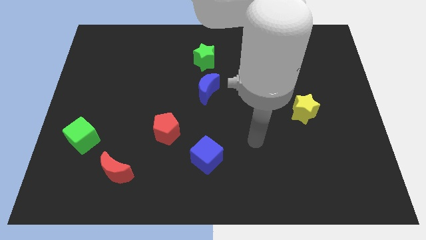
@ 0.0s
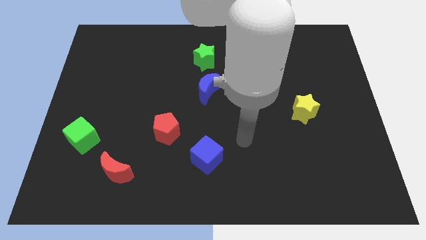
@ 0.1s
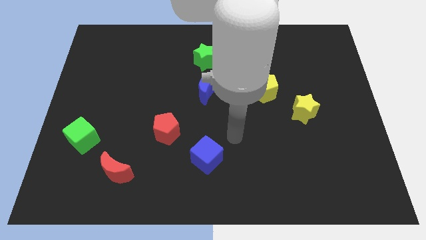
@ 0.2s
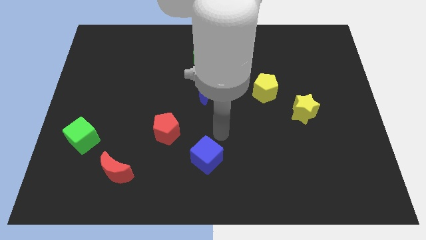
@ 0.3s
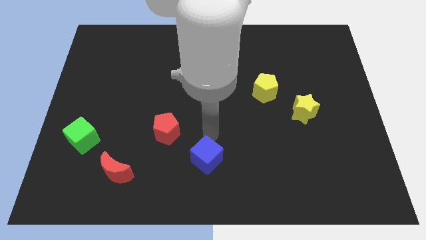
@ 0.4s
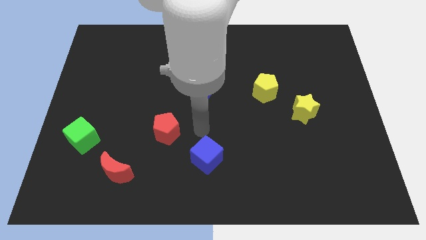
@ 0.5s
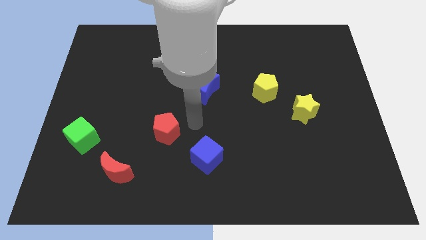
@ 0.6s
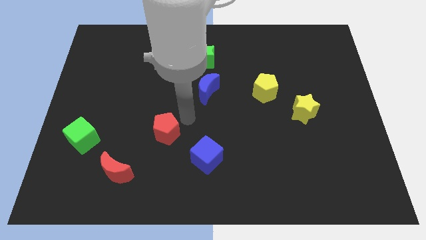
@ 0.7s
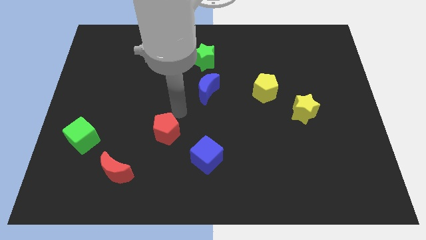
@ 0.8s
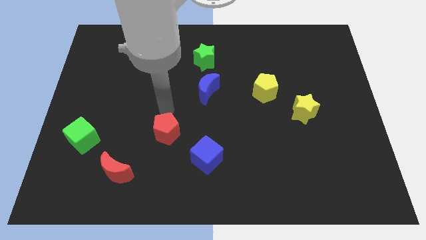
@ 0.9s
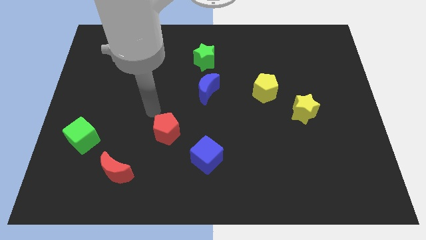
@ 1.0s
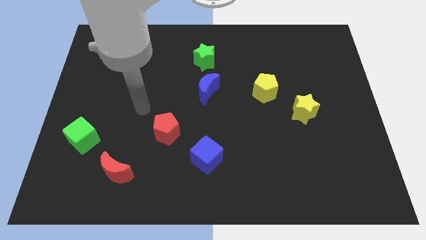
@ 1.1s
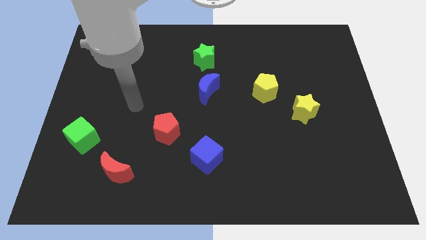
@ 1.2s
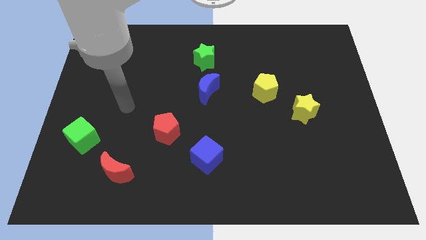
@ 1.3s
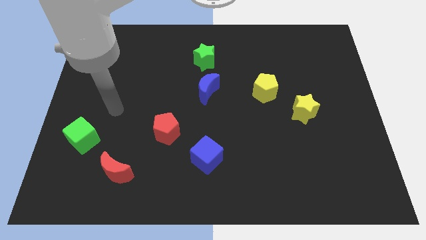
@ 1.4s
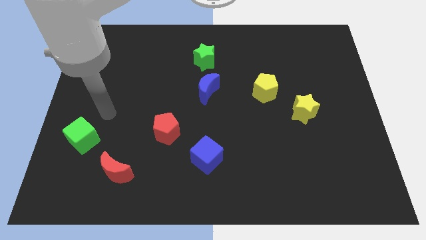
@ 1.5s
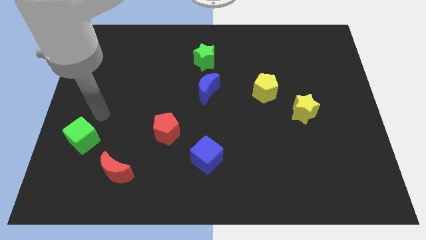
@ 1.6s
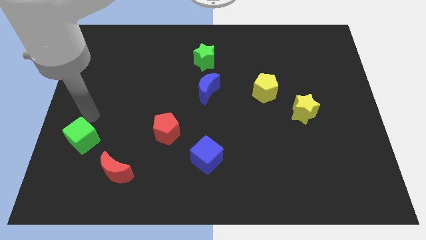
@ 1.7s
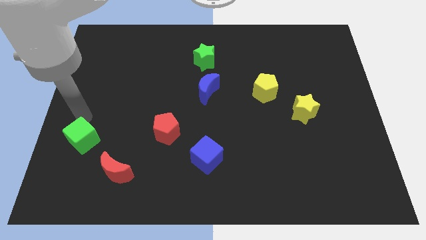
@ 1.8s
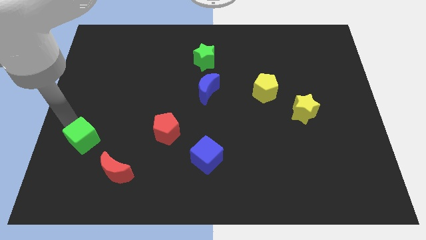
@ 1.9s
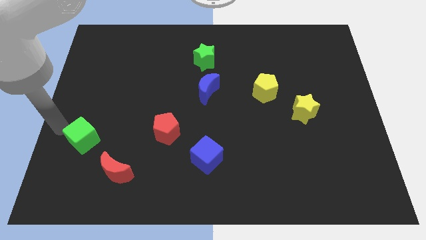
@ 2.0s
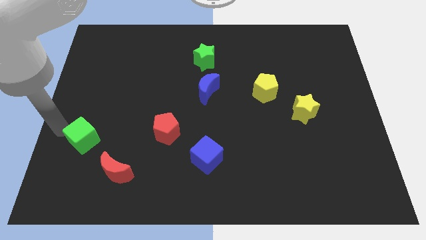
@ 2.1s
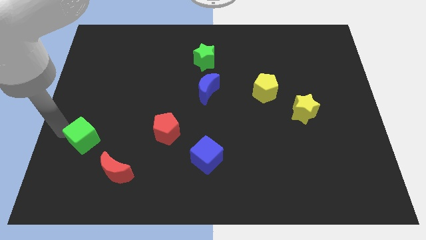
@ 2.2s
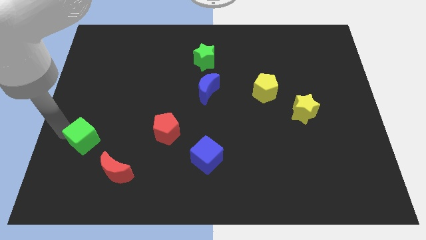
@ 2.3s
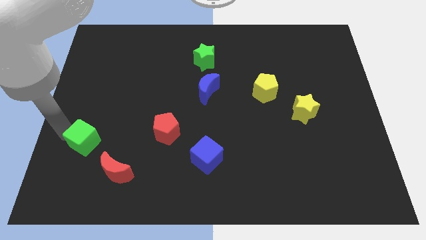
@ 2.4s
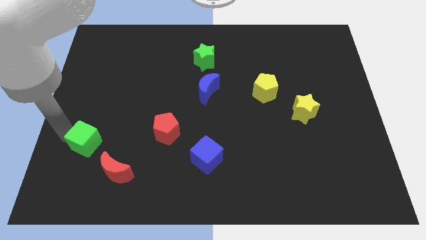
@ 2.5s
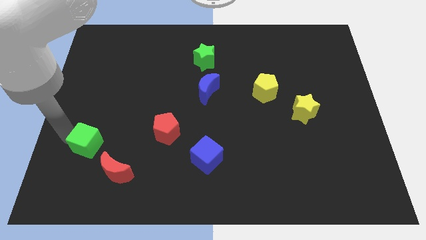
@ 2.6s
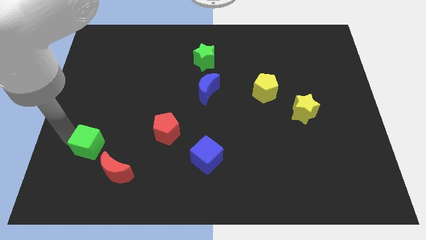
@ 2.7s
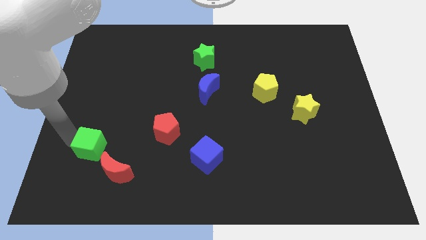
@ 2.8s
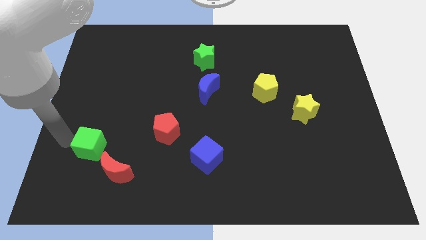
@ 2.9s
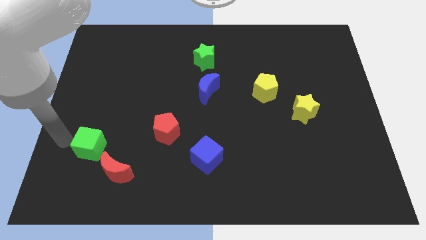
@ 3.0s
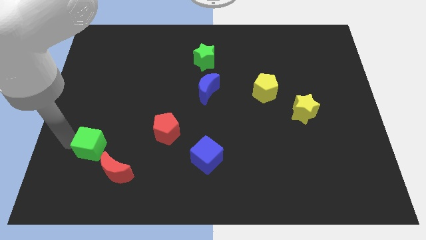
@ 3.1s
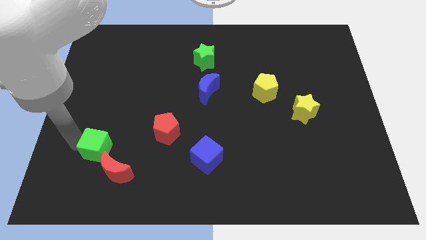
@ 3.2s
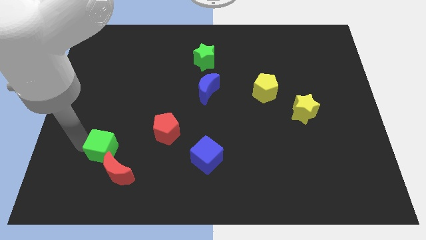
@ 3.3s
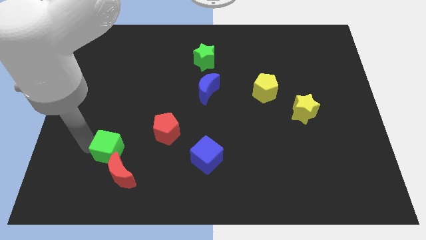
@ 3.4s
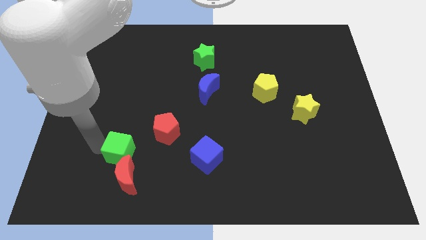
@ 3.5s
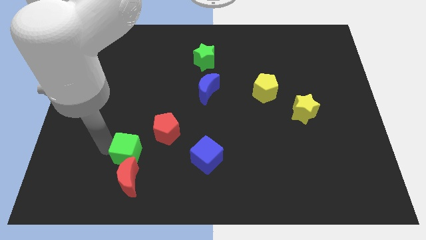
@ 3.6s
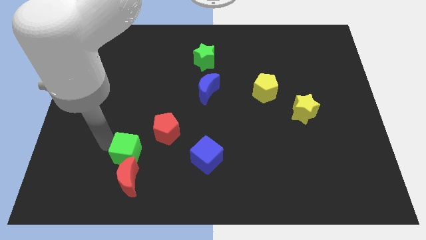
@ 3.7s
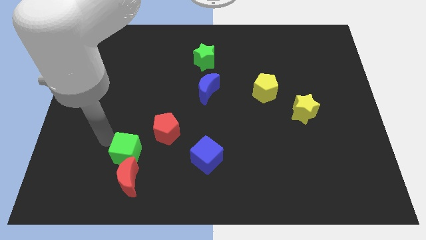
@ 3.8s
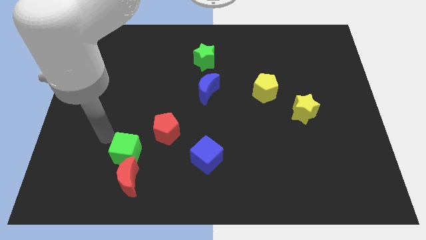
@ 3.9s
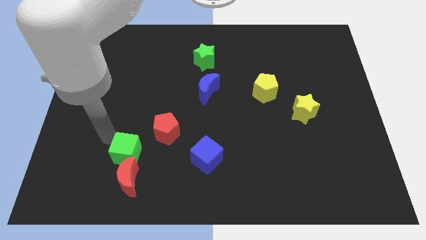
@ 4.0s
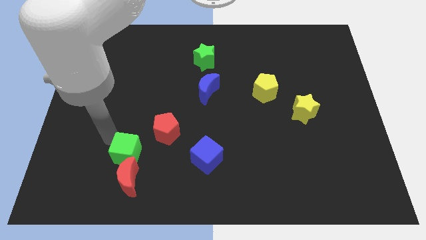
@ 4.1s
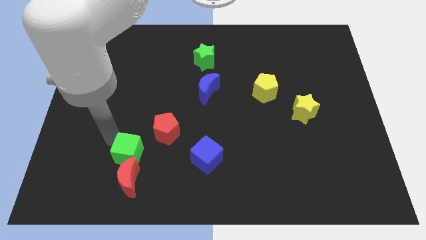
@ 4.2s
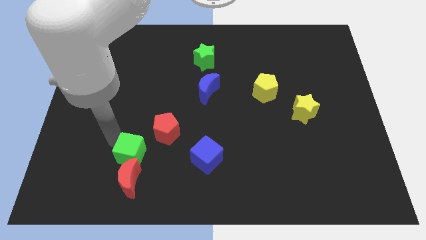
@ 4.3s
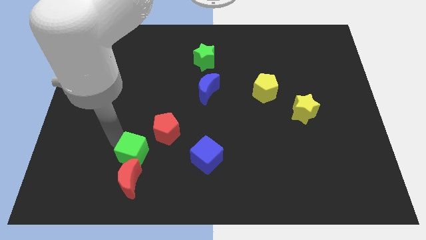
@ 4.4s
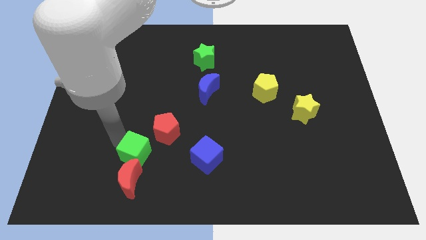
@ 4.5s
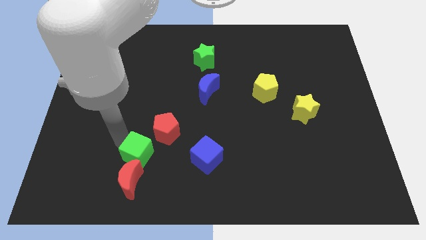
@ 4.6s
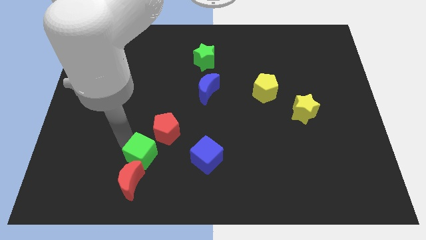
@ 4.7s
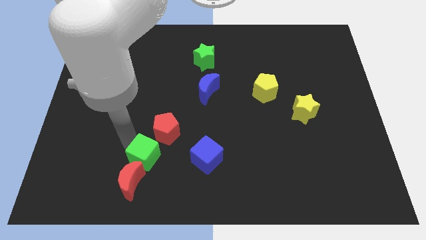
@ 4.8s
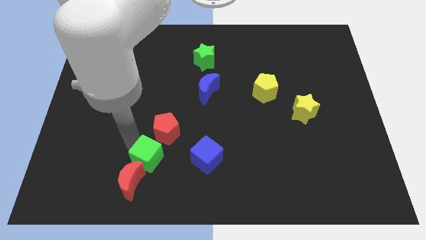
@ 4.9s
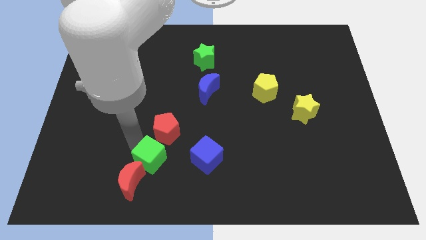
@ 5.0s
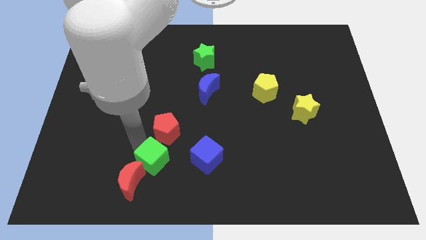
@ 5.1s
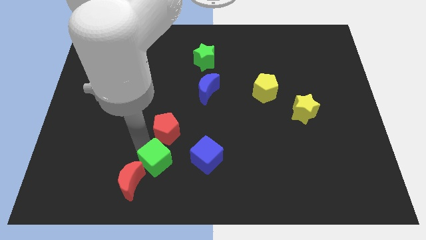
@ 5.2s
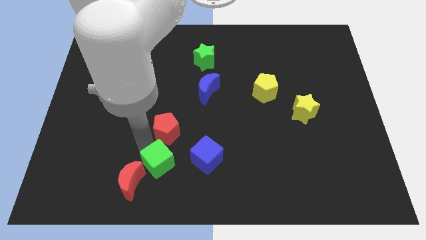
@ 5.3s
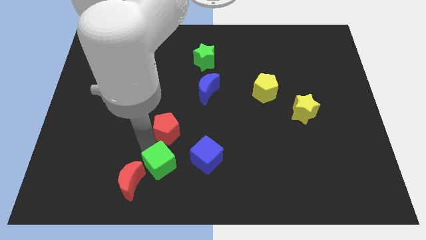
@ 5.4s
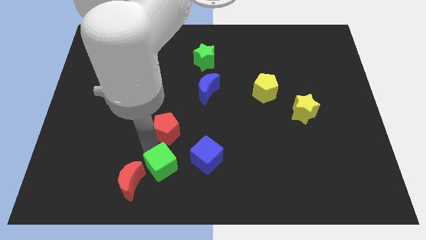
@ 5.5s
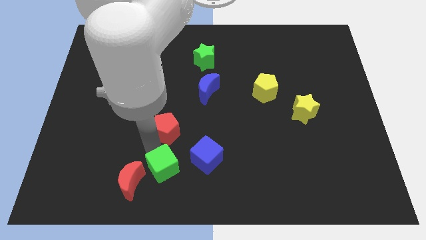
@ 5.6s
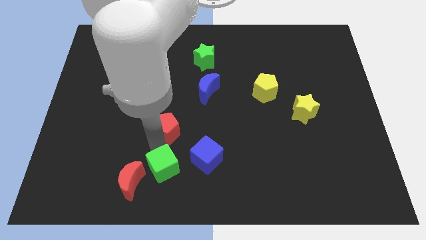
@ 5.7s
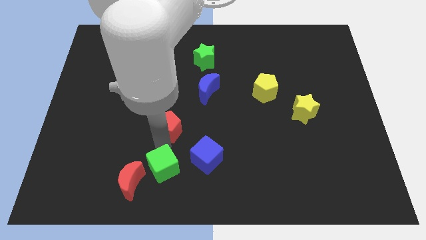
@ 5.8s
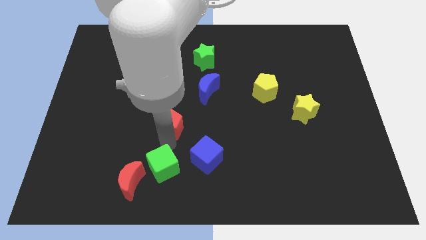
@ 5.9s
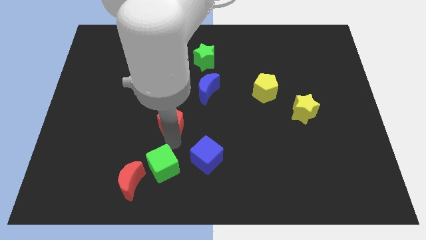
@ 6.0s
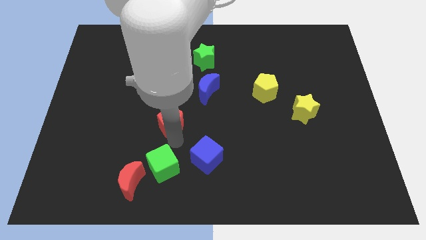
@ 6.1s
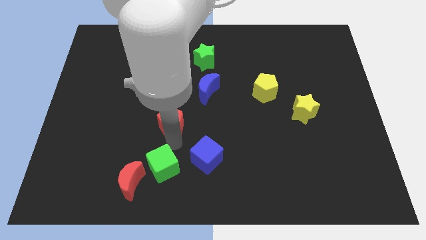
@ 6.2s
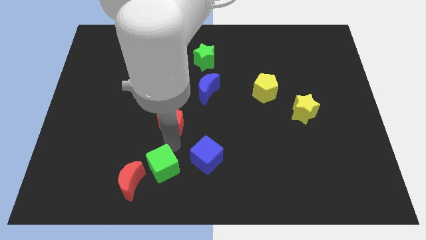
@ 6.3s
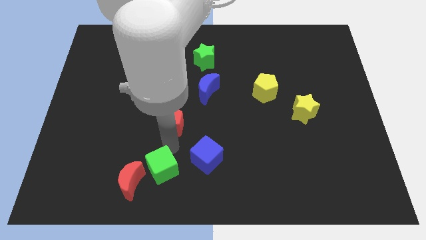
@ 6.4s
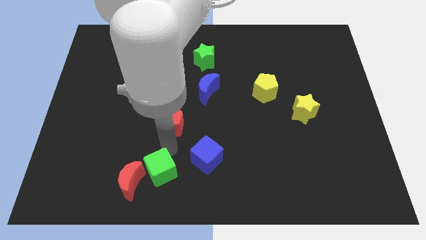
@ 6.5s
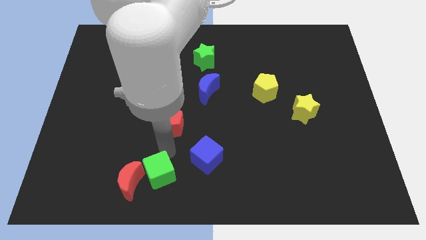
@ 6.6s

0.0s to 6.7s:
put the green cube to the bottom

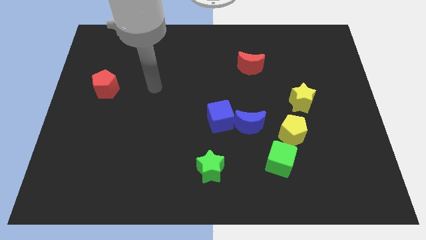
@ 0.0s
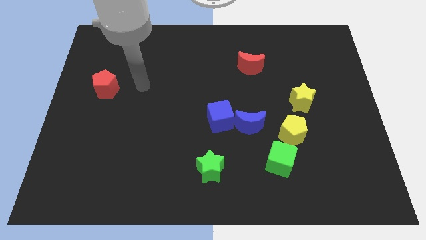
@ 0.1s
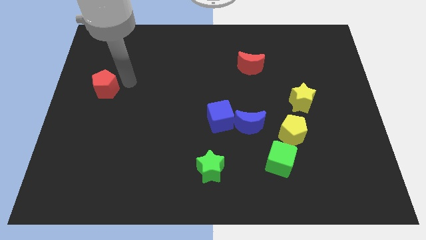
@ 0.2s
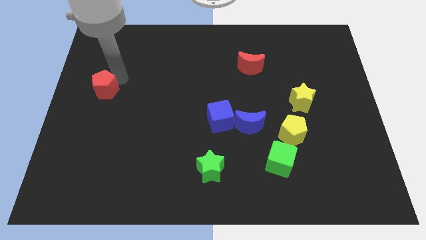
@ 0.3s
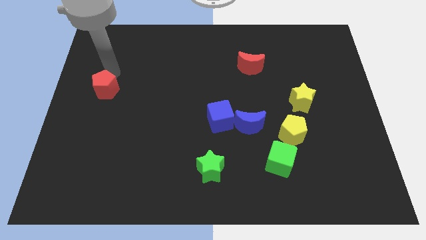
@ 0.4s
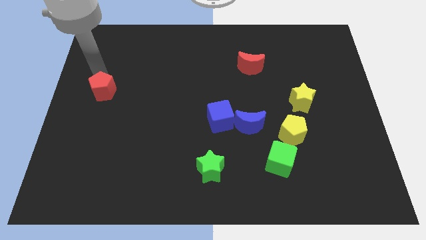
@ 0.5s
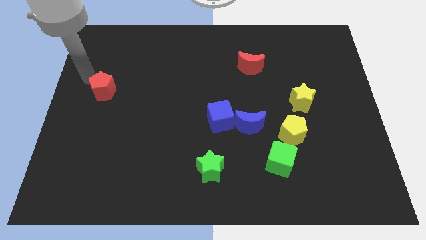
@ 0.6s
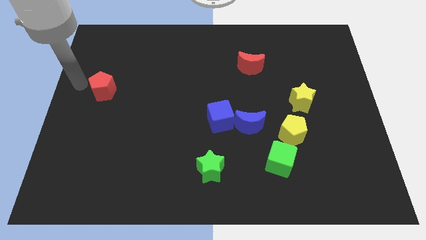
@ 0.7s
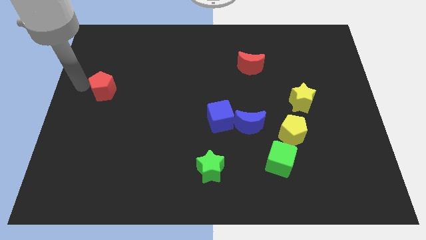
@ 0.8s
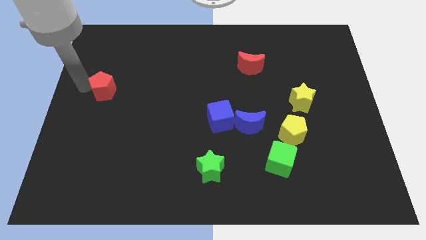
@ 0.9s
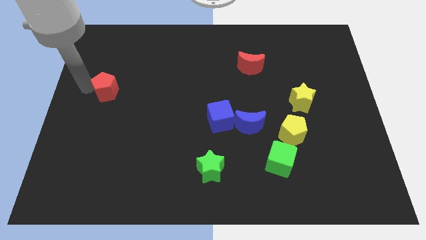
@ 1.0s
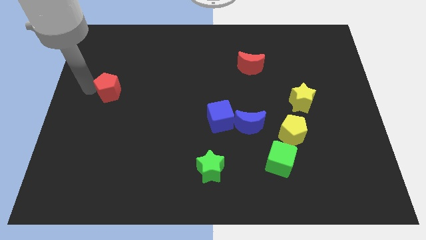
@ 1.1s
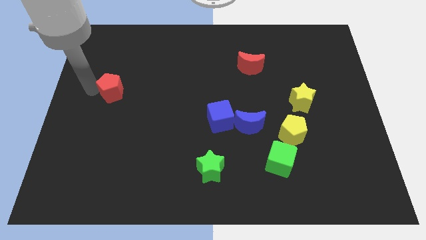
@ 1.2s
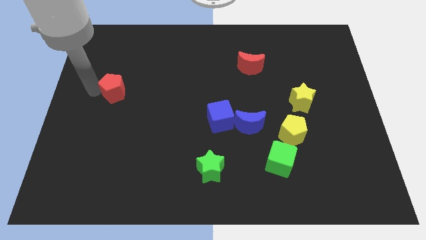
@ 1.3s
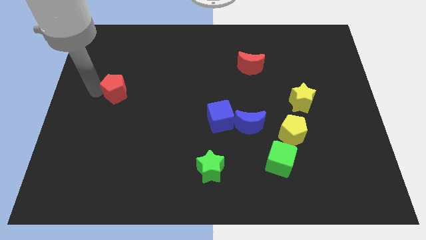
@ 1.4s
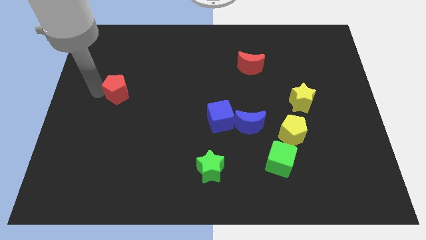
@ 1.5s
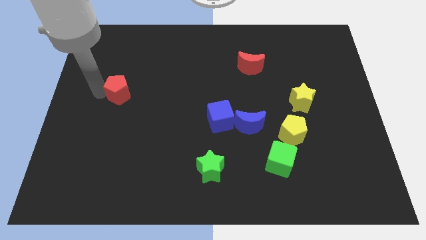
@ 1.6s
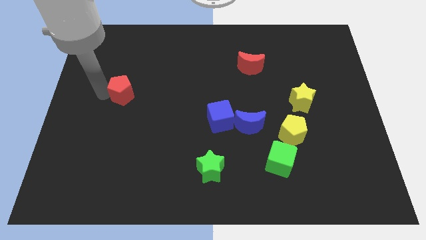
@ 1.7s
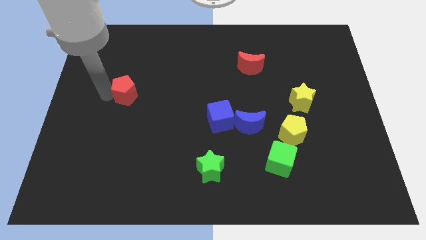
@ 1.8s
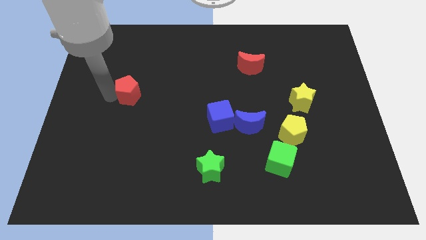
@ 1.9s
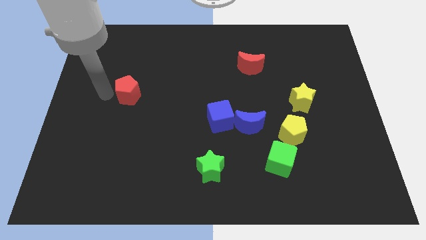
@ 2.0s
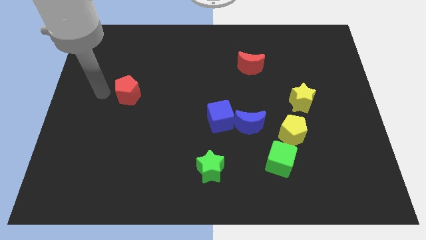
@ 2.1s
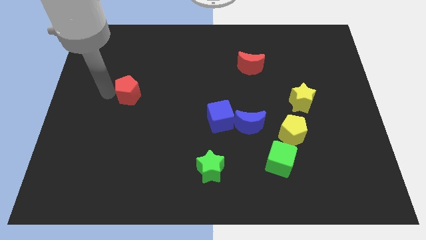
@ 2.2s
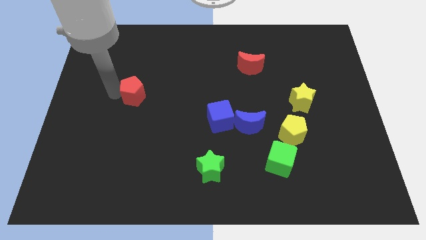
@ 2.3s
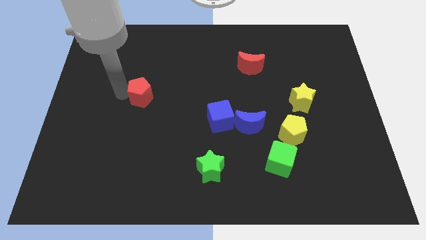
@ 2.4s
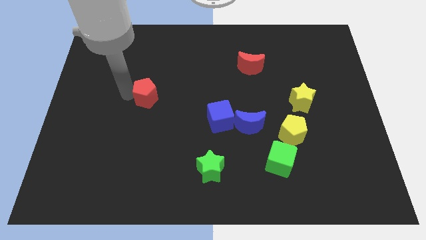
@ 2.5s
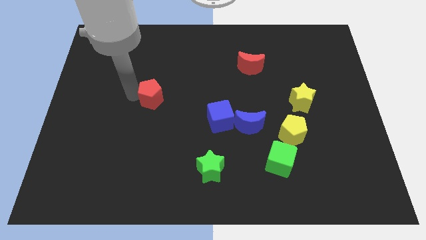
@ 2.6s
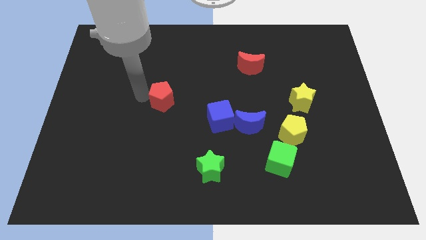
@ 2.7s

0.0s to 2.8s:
put the red pentagon to the middle
